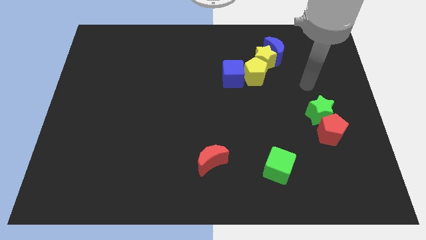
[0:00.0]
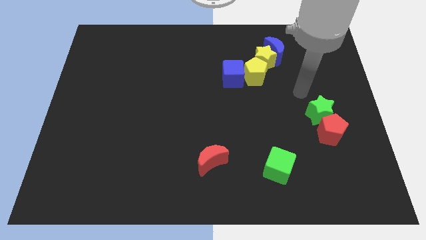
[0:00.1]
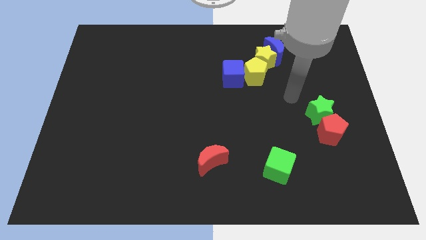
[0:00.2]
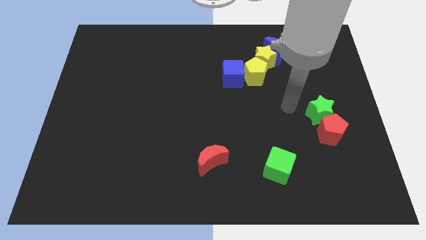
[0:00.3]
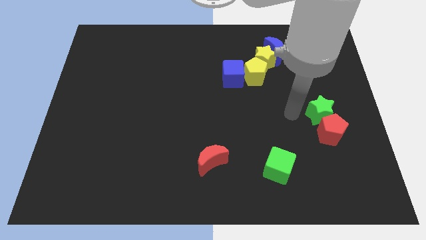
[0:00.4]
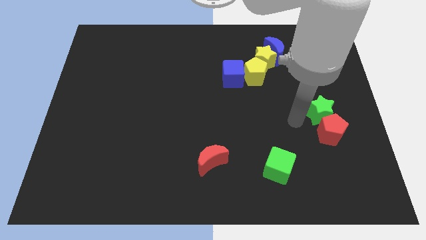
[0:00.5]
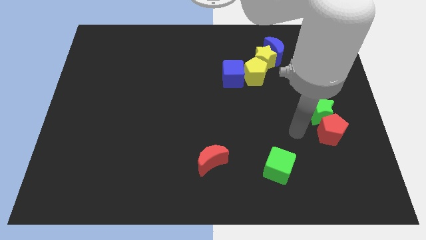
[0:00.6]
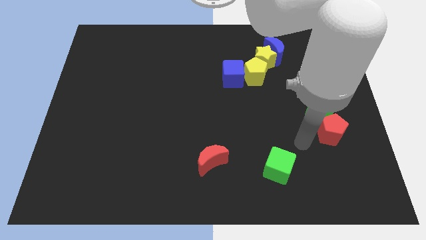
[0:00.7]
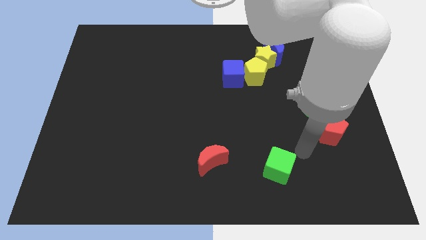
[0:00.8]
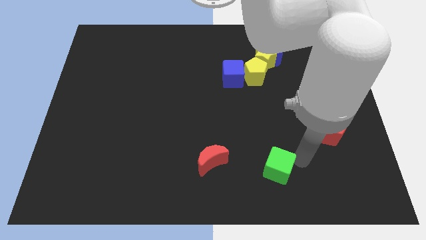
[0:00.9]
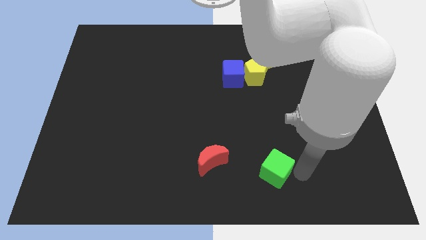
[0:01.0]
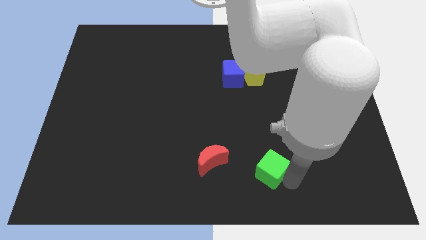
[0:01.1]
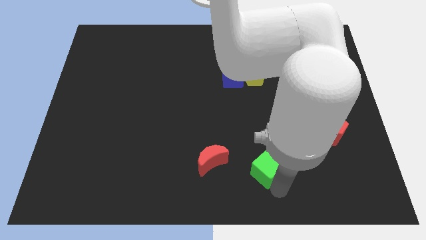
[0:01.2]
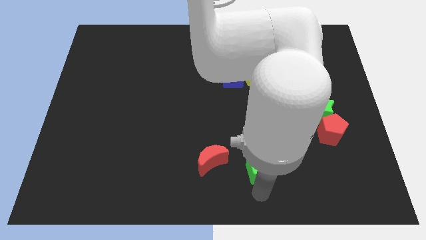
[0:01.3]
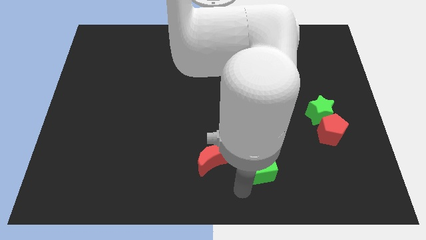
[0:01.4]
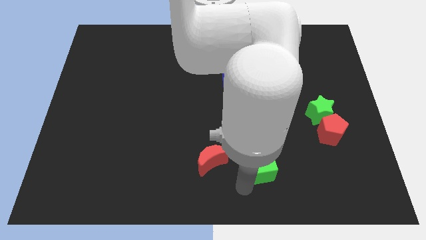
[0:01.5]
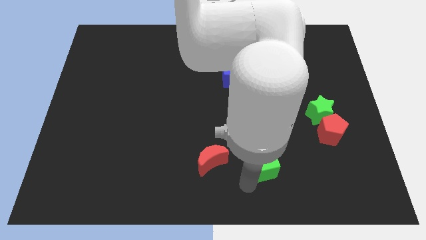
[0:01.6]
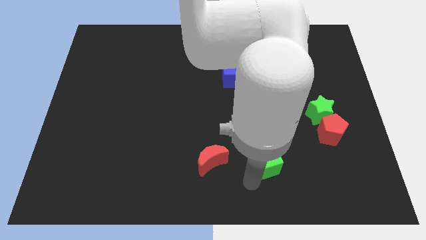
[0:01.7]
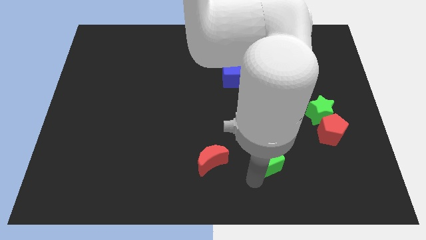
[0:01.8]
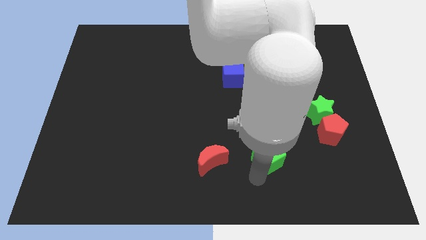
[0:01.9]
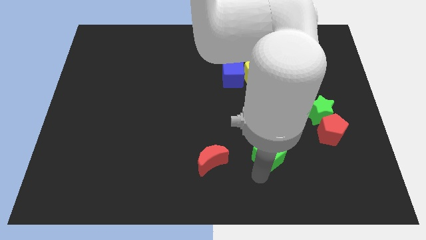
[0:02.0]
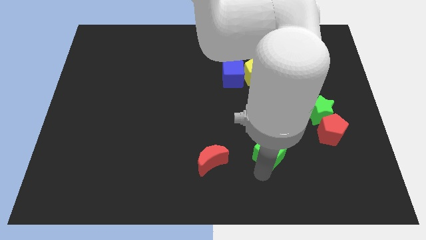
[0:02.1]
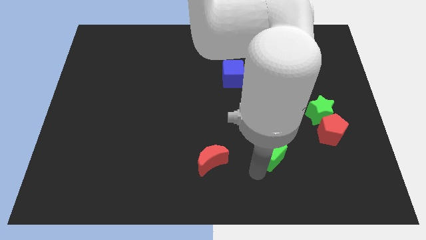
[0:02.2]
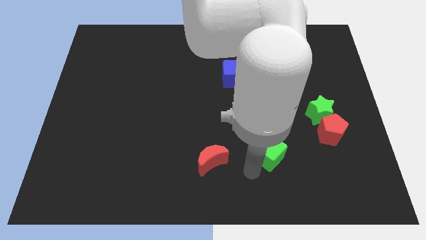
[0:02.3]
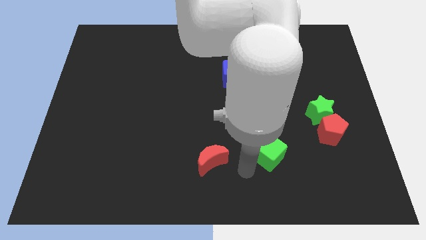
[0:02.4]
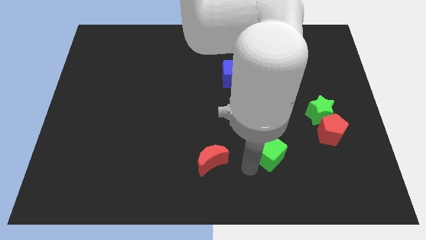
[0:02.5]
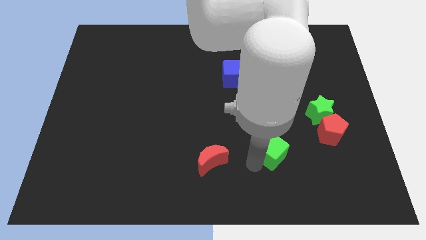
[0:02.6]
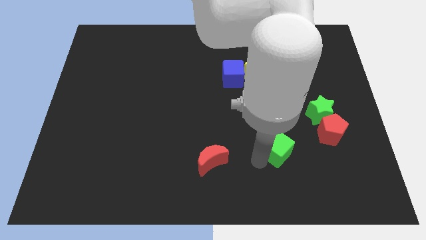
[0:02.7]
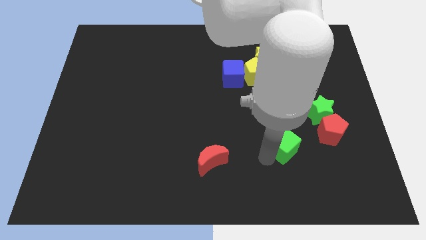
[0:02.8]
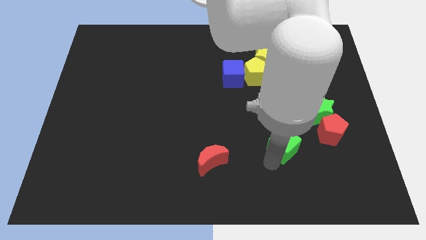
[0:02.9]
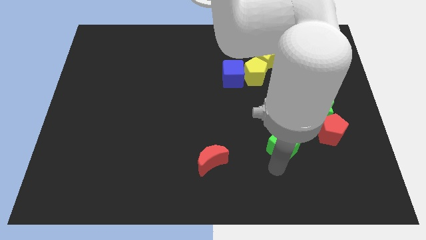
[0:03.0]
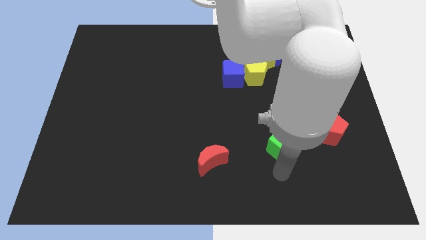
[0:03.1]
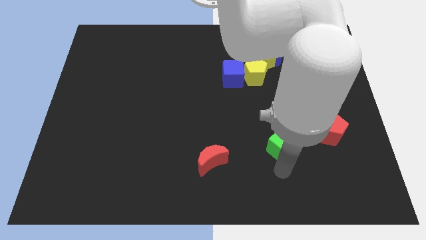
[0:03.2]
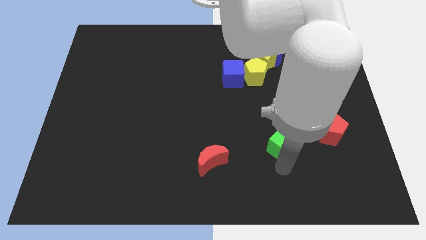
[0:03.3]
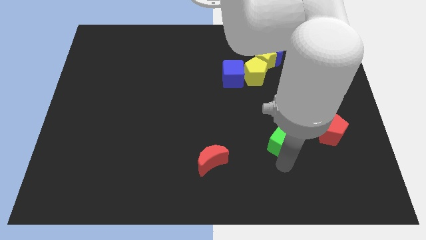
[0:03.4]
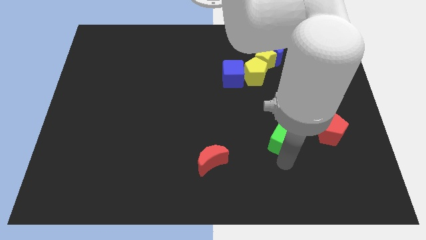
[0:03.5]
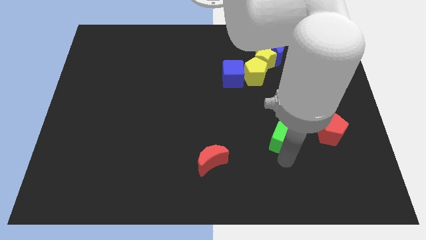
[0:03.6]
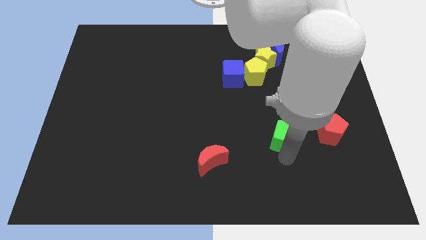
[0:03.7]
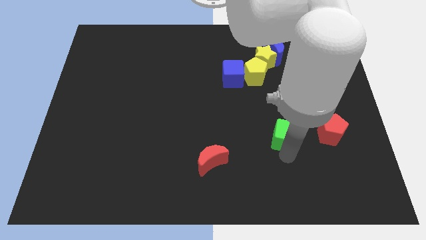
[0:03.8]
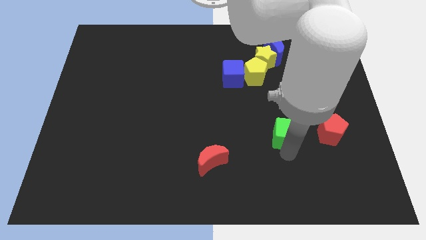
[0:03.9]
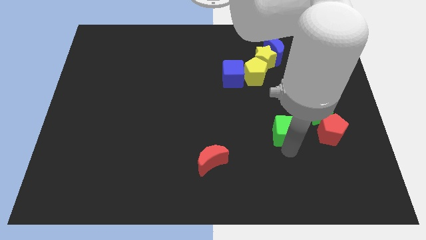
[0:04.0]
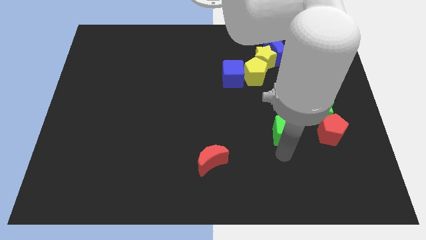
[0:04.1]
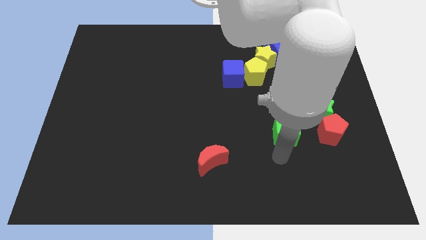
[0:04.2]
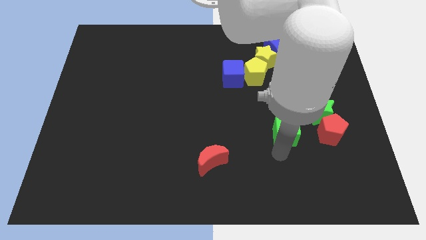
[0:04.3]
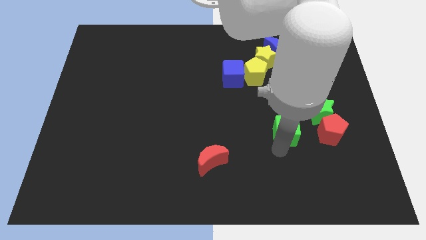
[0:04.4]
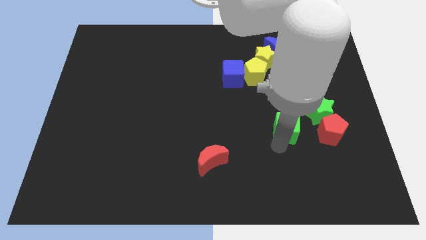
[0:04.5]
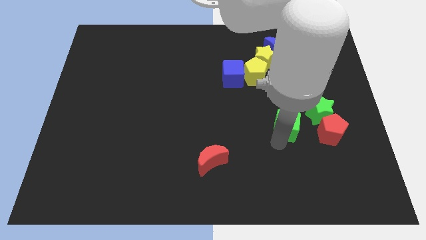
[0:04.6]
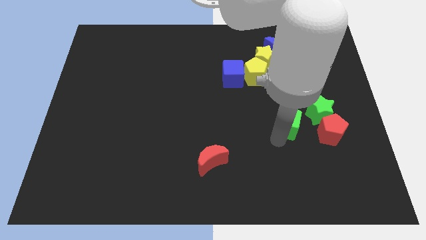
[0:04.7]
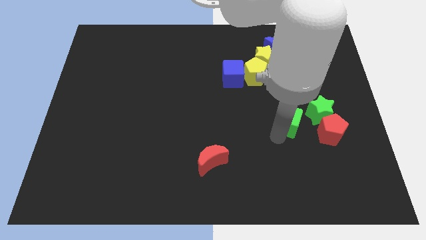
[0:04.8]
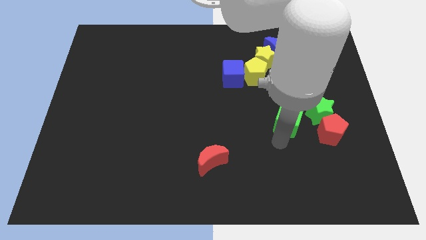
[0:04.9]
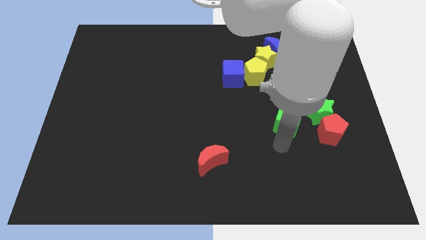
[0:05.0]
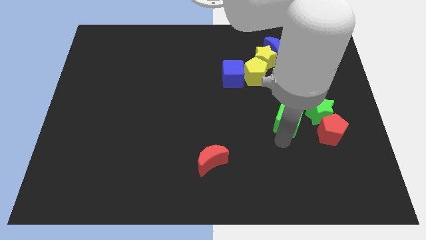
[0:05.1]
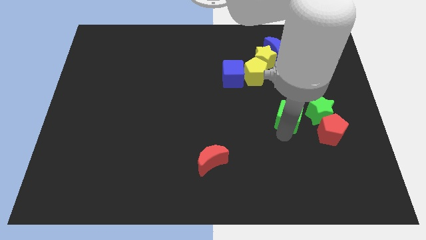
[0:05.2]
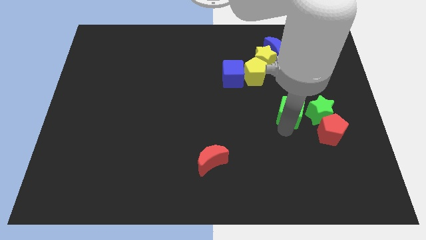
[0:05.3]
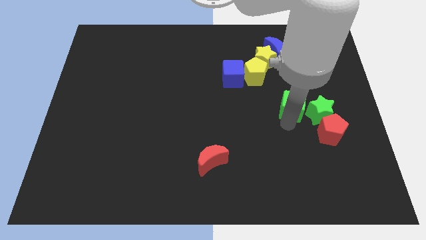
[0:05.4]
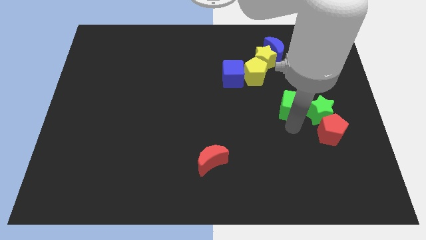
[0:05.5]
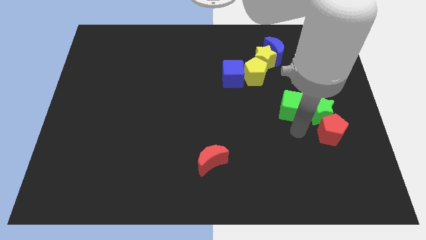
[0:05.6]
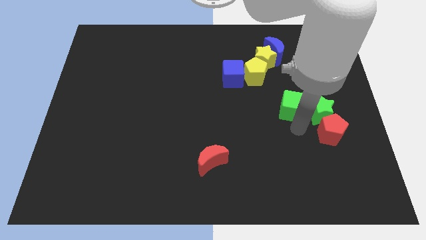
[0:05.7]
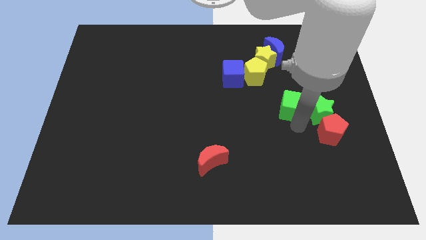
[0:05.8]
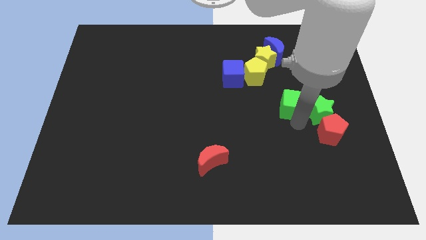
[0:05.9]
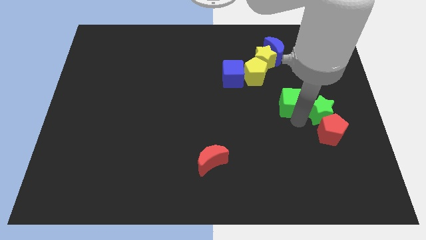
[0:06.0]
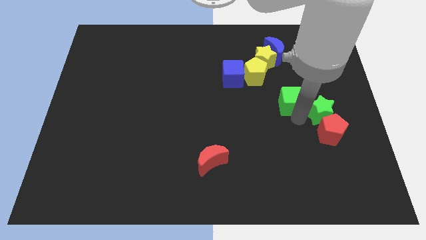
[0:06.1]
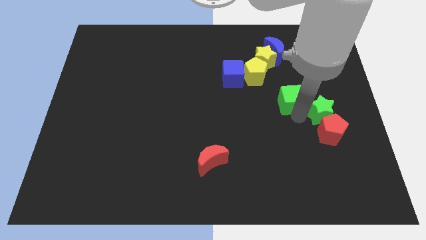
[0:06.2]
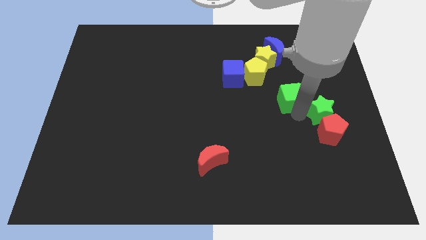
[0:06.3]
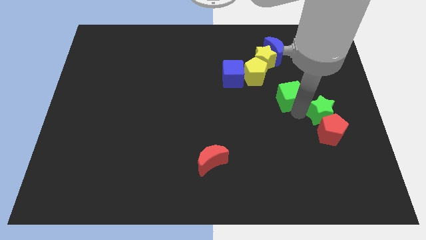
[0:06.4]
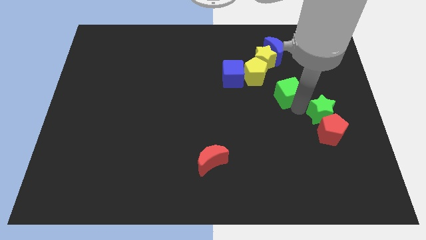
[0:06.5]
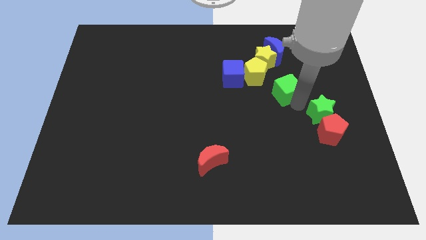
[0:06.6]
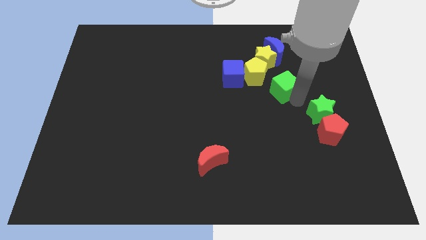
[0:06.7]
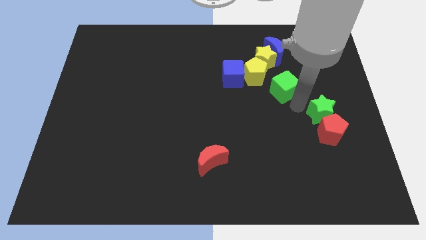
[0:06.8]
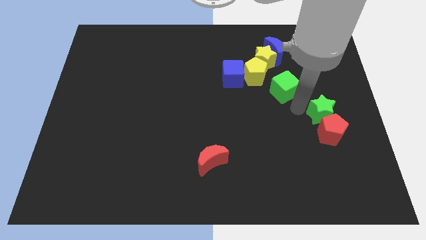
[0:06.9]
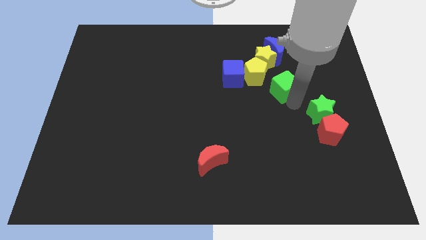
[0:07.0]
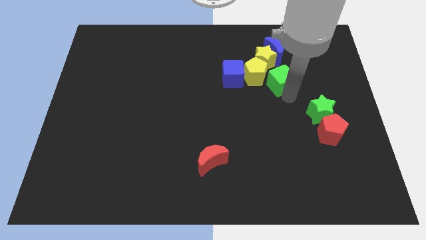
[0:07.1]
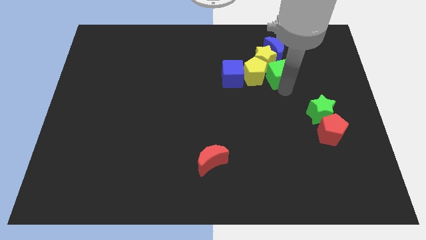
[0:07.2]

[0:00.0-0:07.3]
put the green cube towards the yellow star

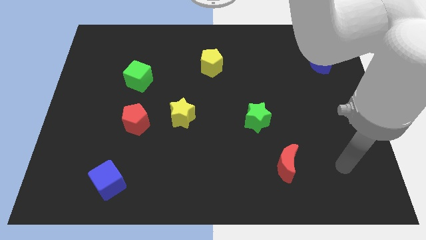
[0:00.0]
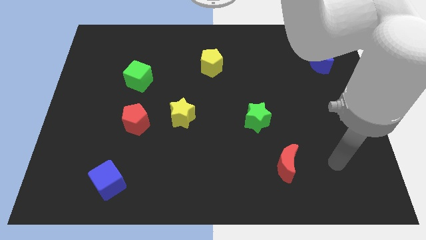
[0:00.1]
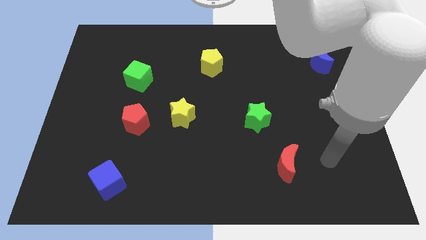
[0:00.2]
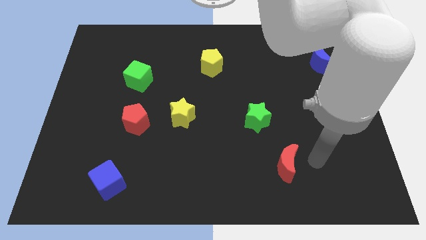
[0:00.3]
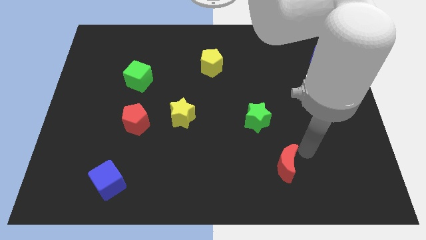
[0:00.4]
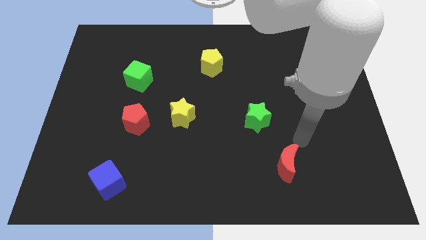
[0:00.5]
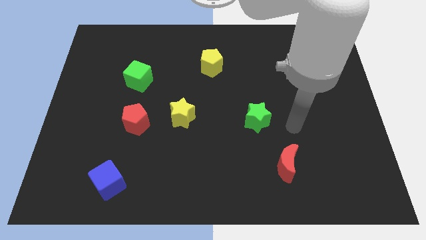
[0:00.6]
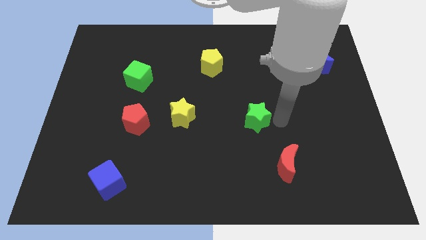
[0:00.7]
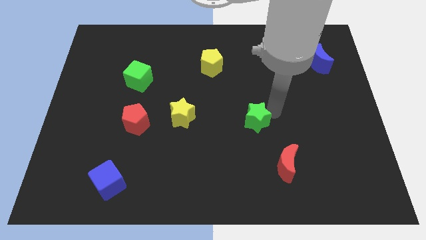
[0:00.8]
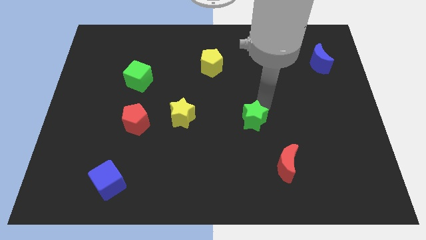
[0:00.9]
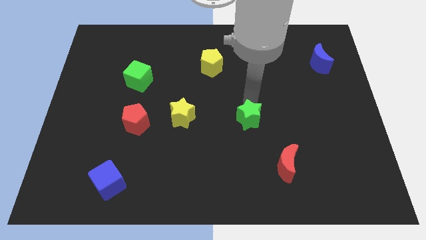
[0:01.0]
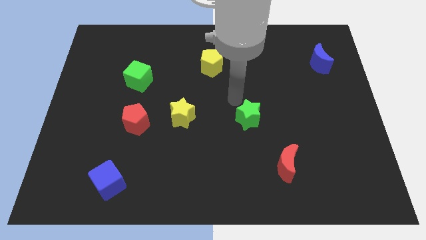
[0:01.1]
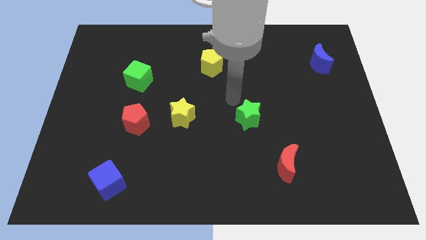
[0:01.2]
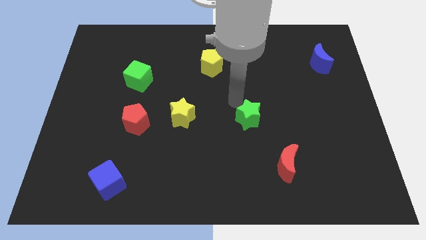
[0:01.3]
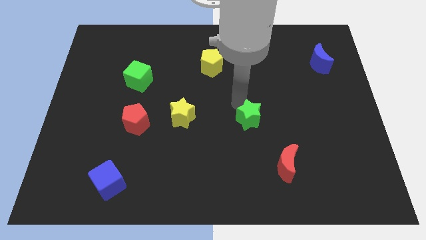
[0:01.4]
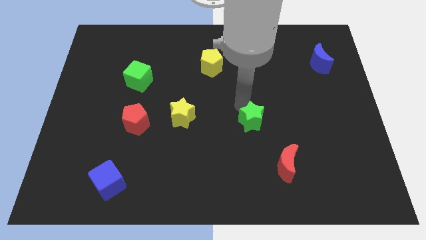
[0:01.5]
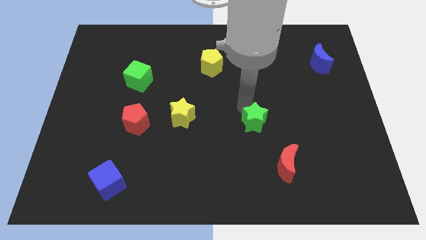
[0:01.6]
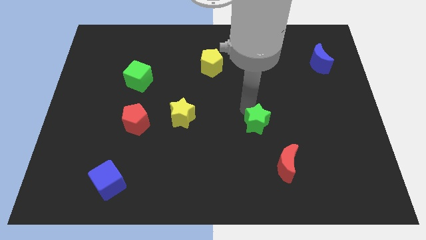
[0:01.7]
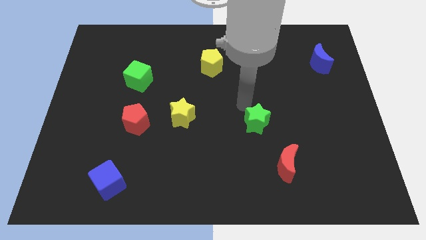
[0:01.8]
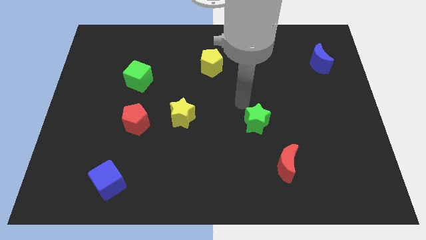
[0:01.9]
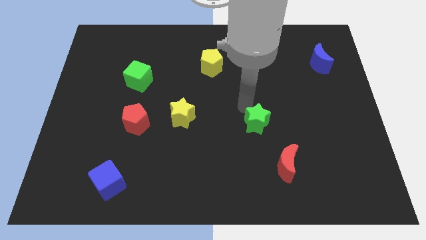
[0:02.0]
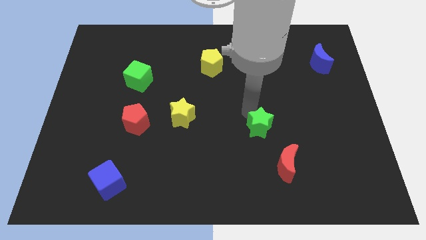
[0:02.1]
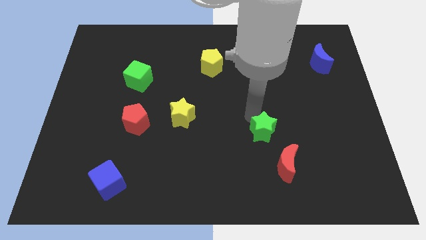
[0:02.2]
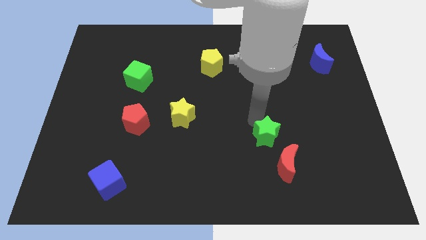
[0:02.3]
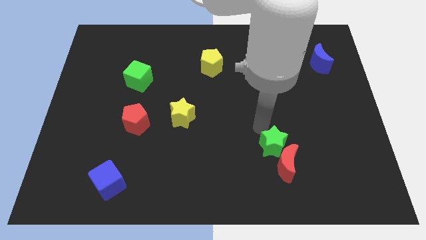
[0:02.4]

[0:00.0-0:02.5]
slide the green star next to the red moon
